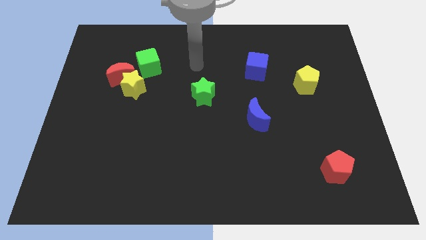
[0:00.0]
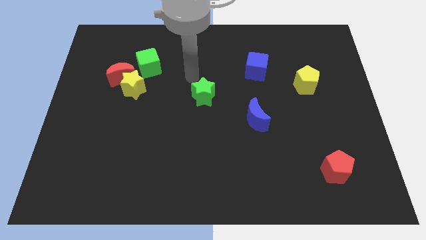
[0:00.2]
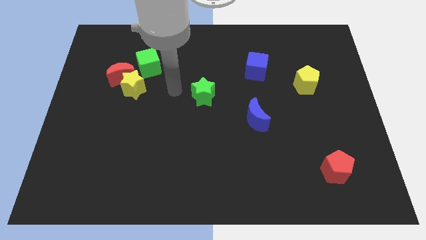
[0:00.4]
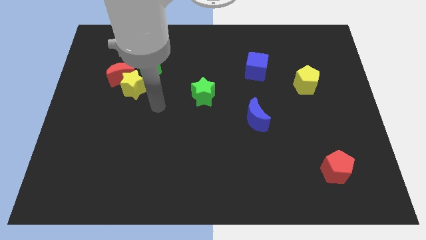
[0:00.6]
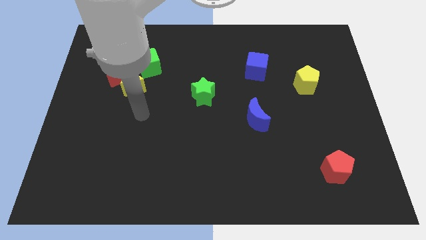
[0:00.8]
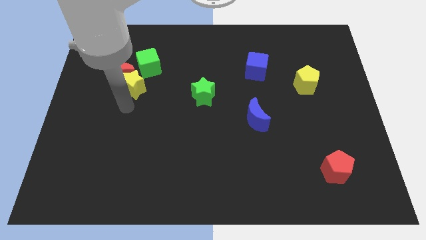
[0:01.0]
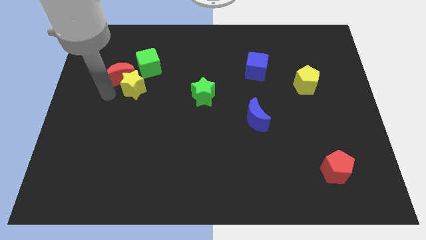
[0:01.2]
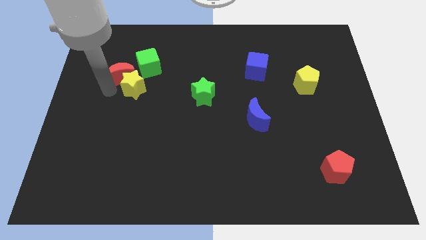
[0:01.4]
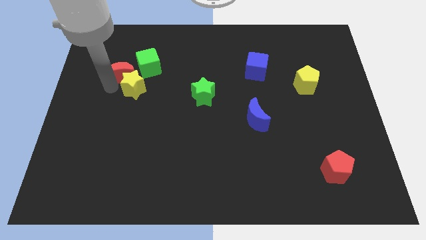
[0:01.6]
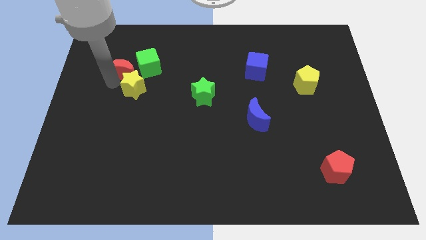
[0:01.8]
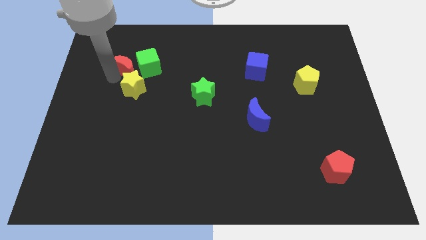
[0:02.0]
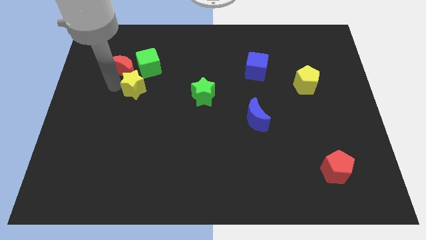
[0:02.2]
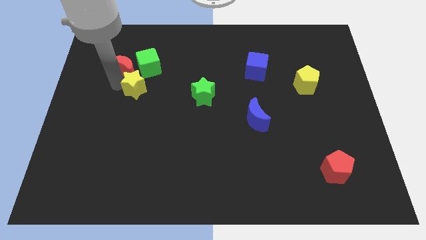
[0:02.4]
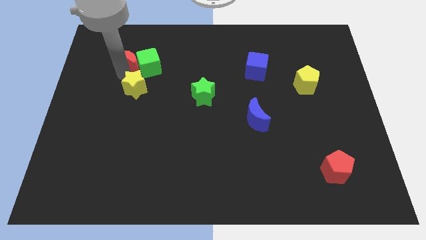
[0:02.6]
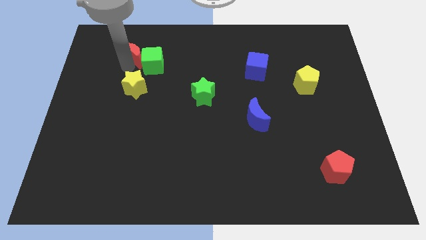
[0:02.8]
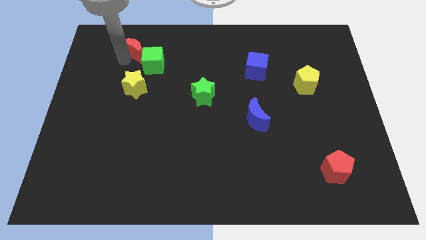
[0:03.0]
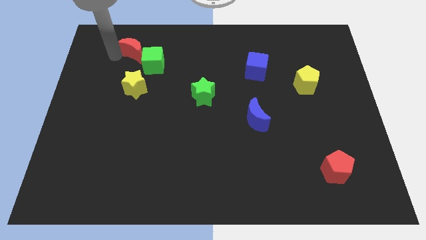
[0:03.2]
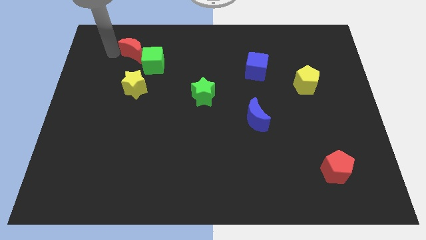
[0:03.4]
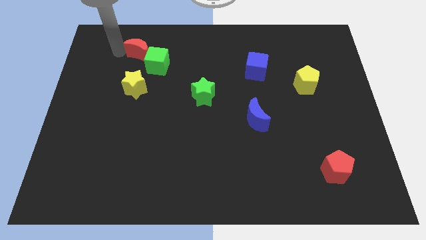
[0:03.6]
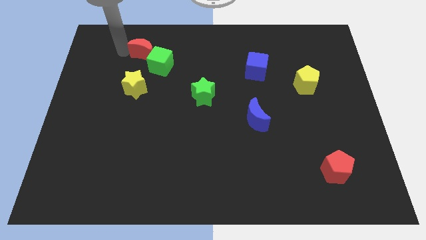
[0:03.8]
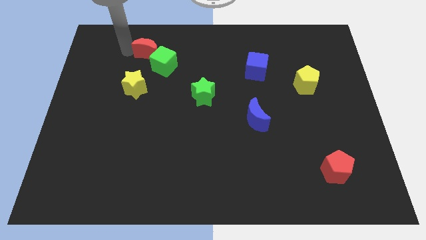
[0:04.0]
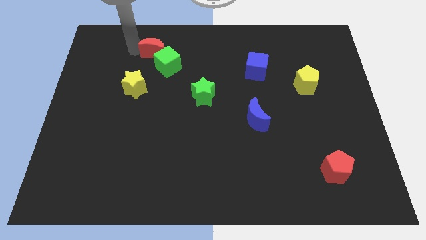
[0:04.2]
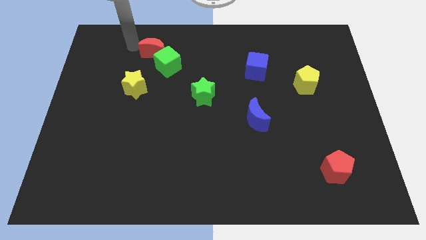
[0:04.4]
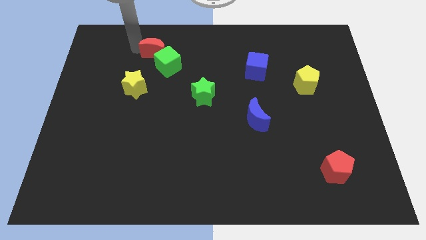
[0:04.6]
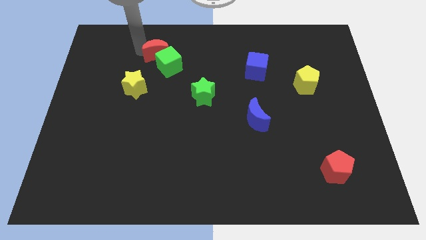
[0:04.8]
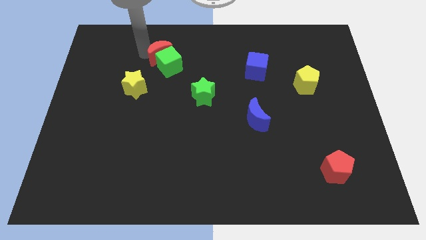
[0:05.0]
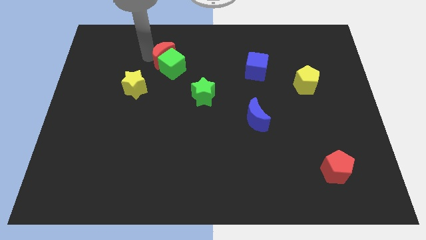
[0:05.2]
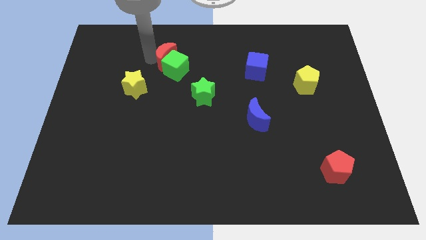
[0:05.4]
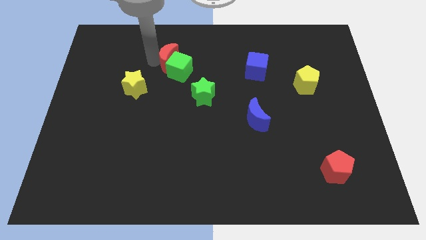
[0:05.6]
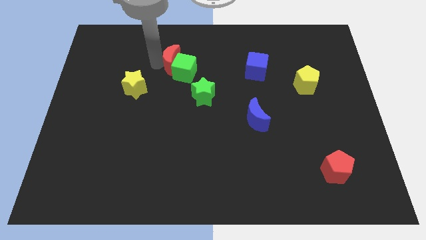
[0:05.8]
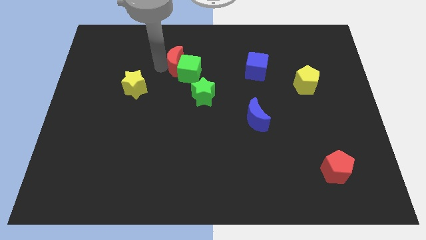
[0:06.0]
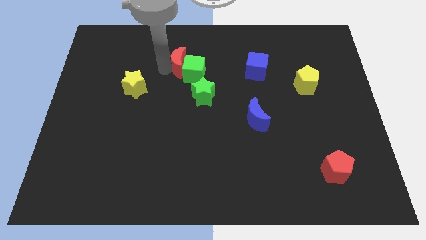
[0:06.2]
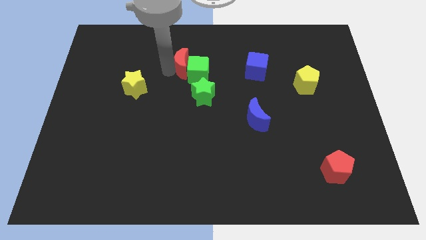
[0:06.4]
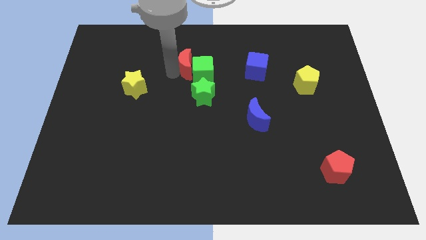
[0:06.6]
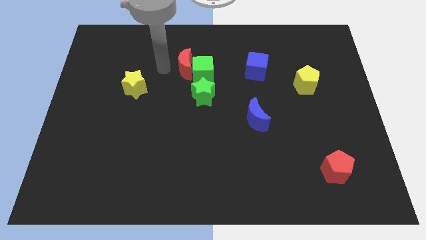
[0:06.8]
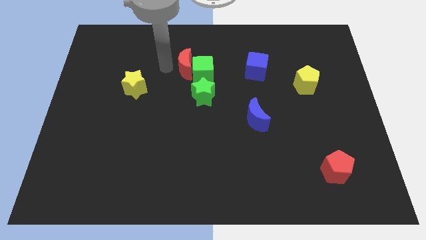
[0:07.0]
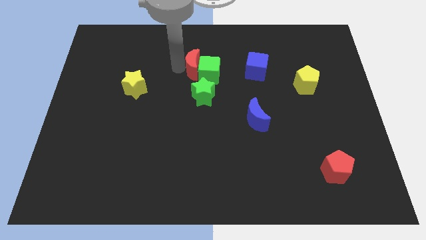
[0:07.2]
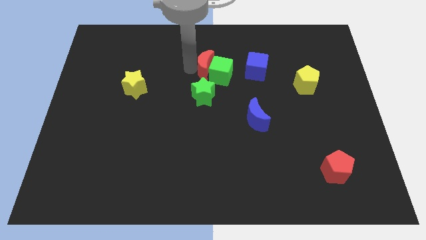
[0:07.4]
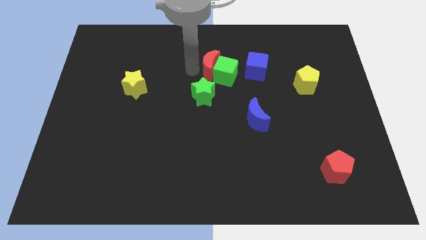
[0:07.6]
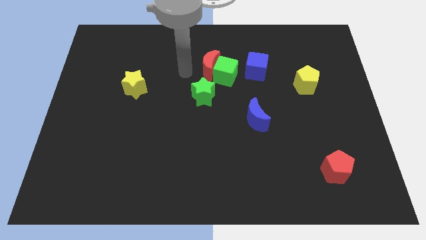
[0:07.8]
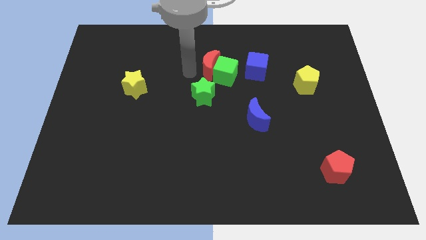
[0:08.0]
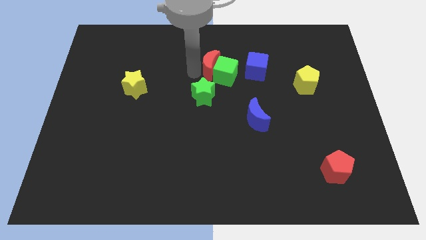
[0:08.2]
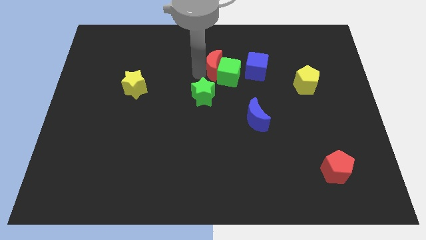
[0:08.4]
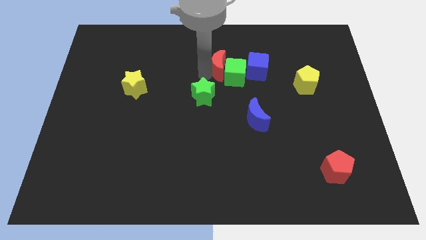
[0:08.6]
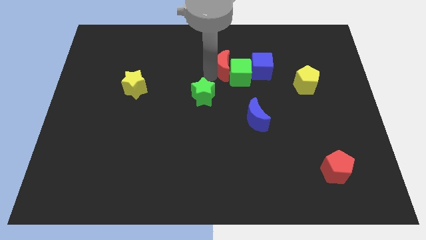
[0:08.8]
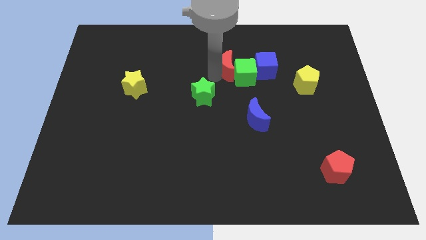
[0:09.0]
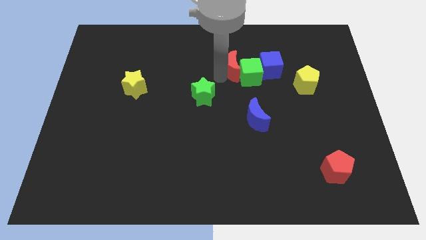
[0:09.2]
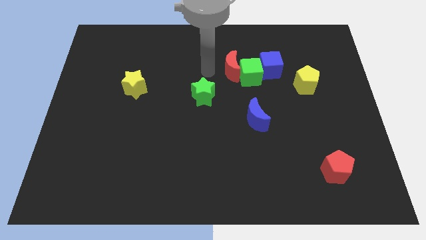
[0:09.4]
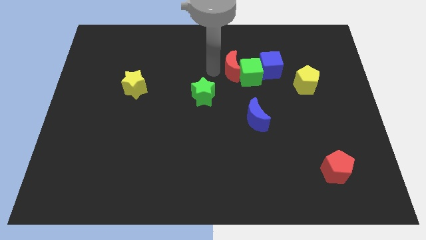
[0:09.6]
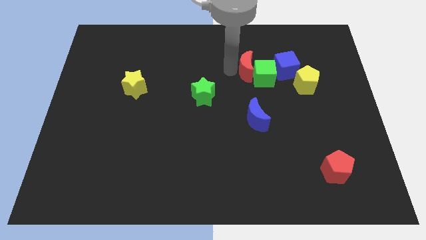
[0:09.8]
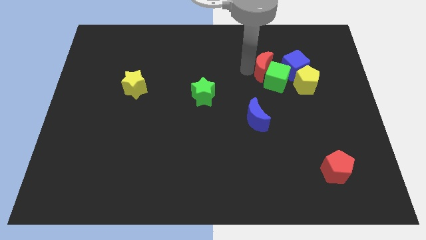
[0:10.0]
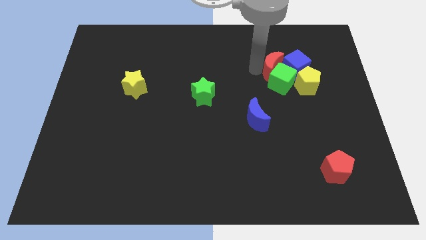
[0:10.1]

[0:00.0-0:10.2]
push the red moon close to the blue cube

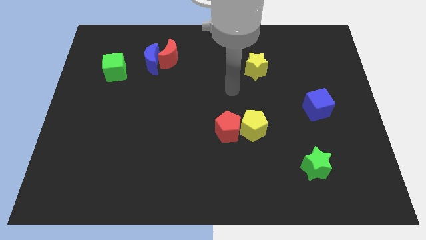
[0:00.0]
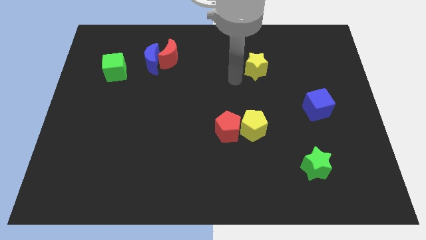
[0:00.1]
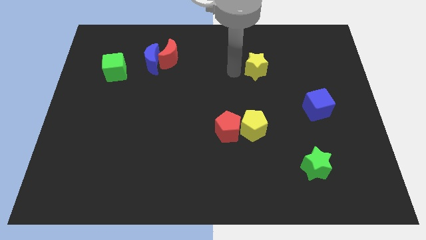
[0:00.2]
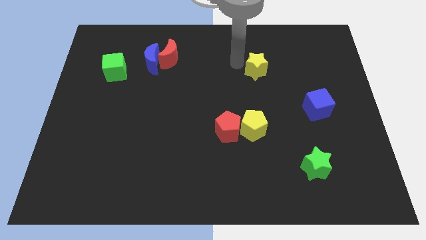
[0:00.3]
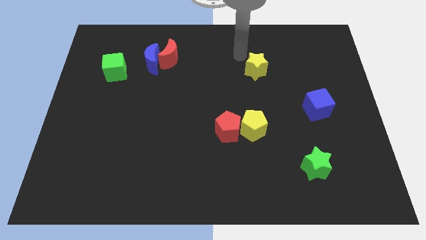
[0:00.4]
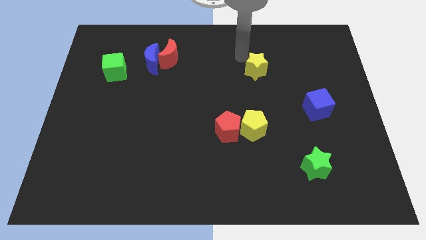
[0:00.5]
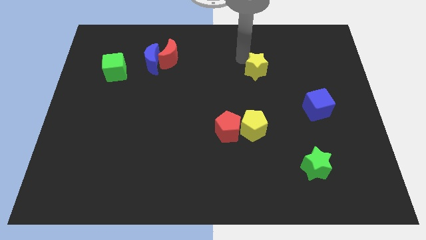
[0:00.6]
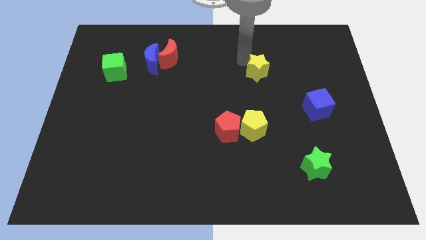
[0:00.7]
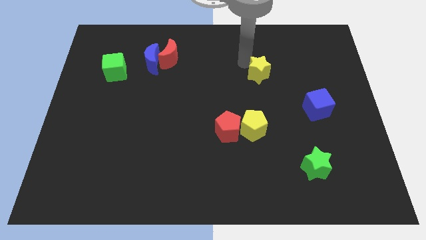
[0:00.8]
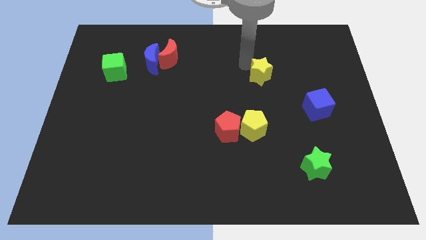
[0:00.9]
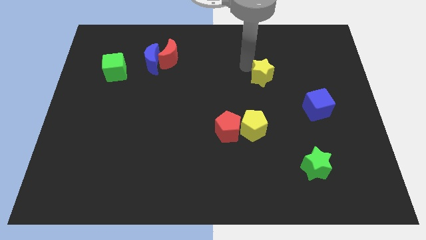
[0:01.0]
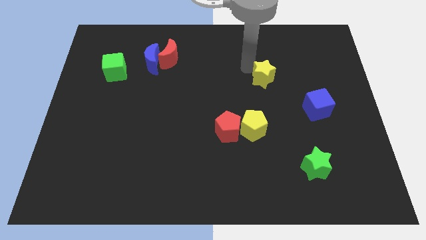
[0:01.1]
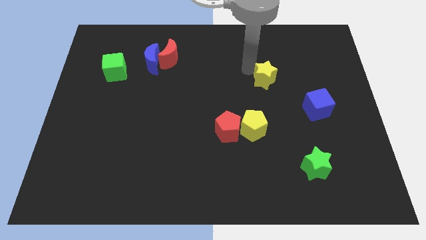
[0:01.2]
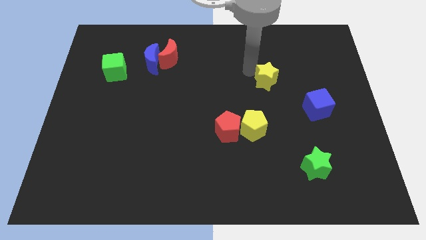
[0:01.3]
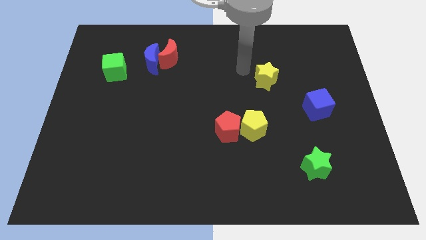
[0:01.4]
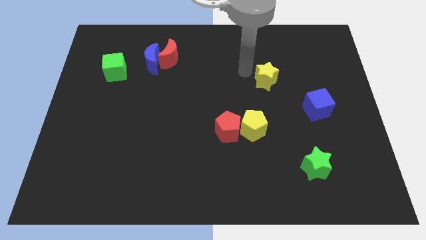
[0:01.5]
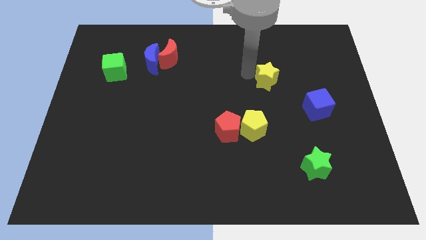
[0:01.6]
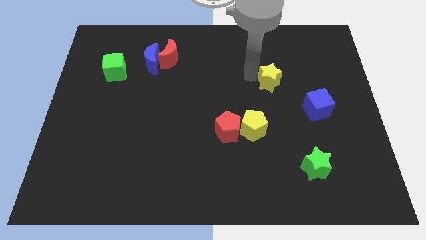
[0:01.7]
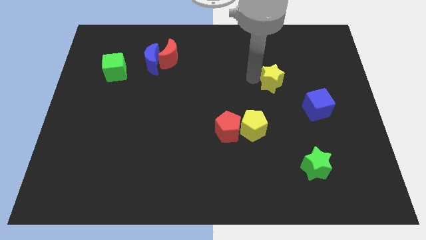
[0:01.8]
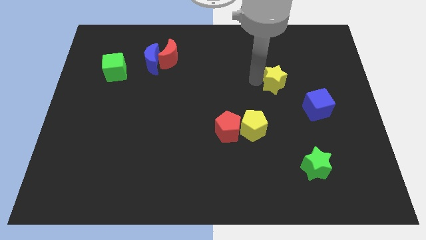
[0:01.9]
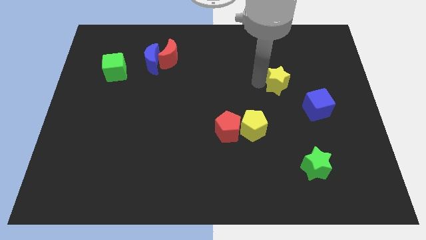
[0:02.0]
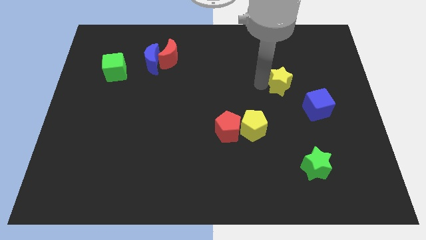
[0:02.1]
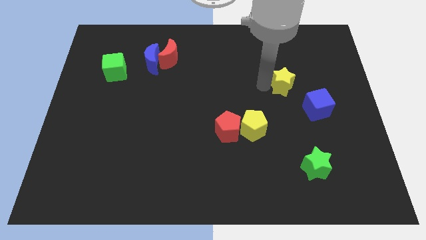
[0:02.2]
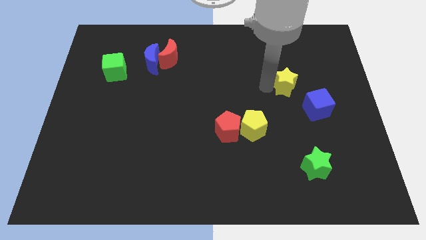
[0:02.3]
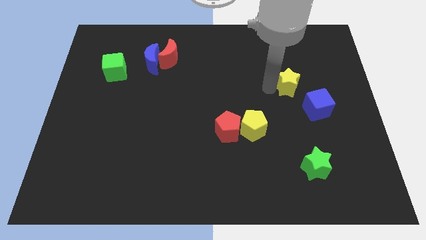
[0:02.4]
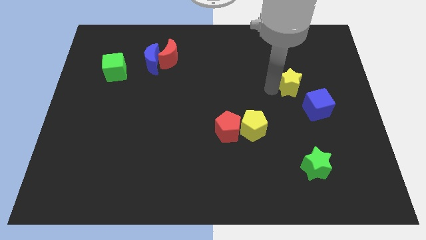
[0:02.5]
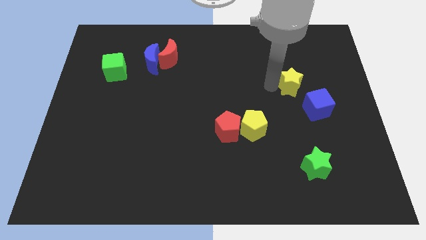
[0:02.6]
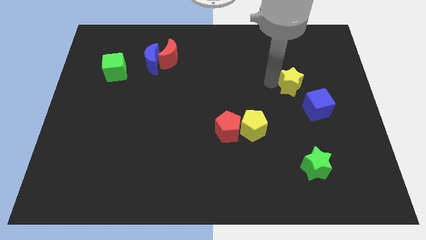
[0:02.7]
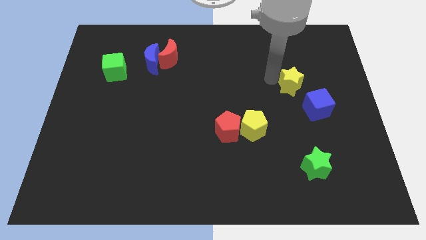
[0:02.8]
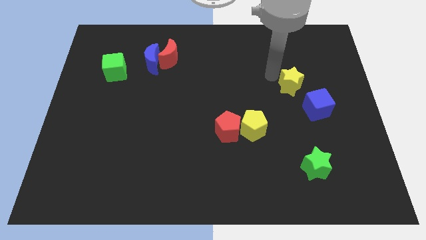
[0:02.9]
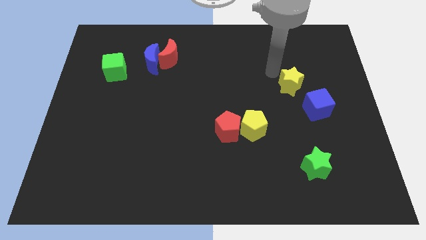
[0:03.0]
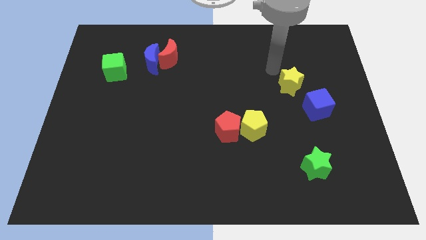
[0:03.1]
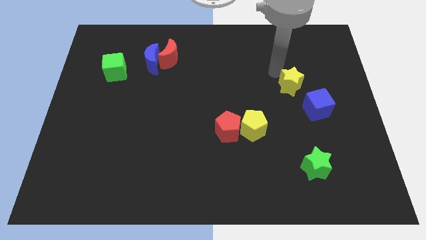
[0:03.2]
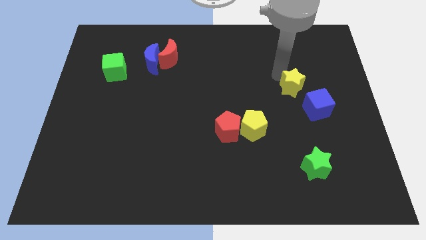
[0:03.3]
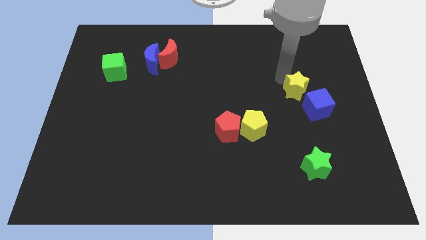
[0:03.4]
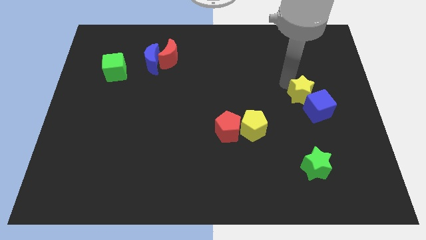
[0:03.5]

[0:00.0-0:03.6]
slide the yellow star close to the blue cube
